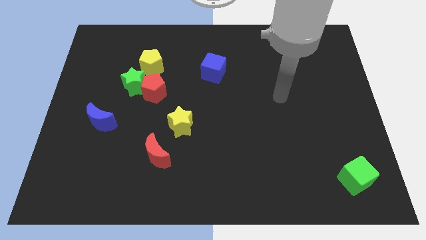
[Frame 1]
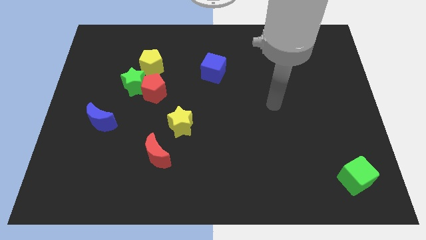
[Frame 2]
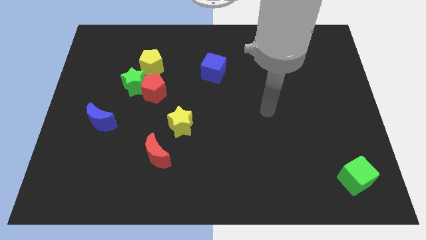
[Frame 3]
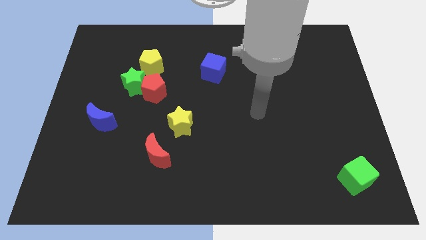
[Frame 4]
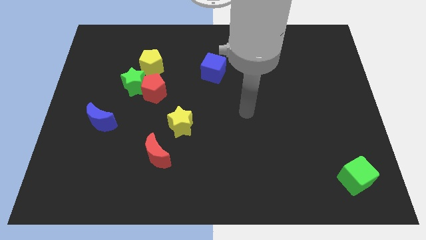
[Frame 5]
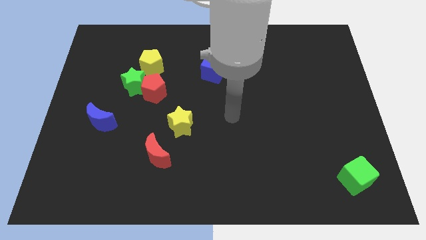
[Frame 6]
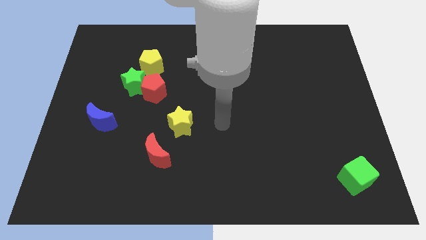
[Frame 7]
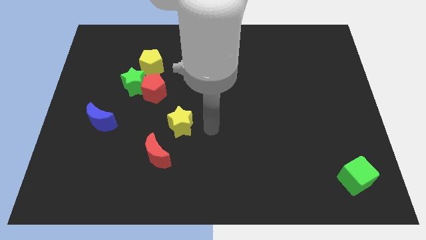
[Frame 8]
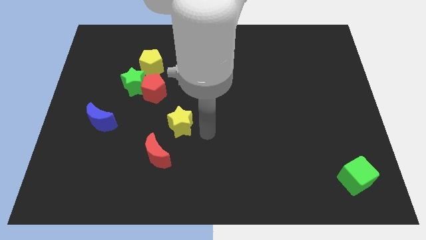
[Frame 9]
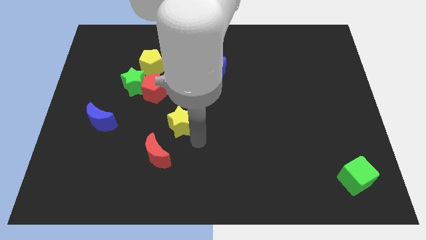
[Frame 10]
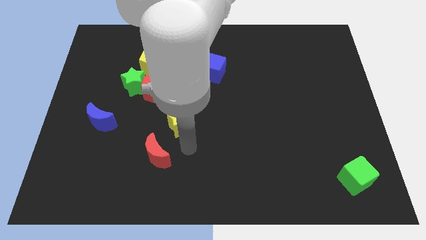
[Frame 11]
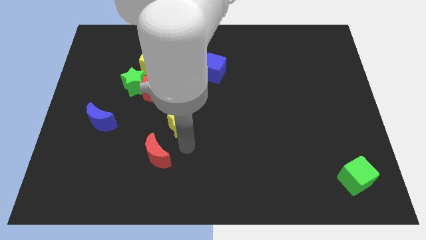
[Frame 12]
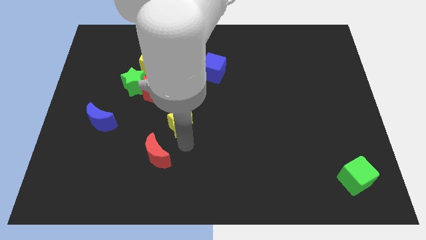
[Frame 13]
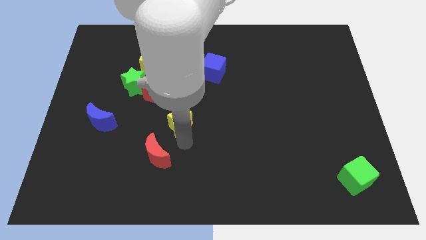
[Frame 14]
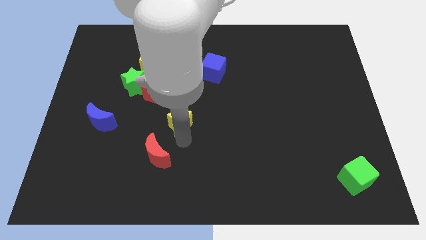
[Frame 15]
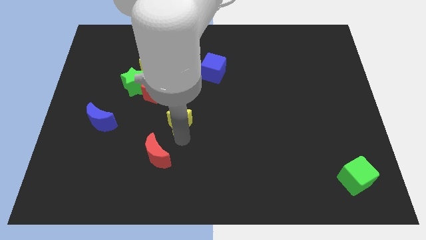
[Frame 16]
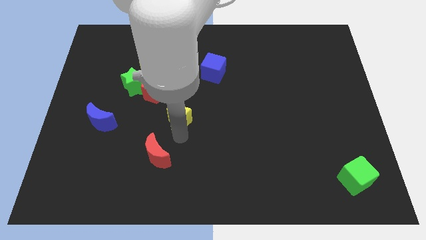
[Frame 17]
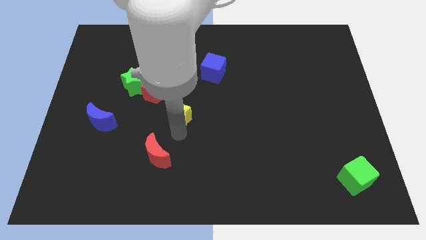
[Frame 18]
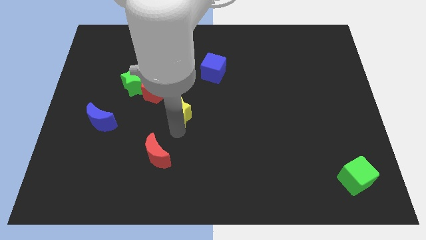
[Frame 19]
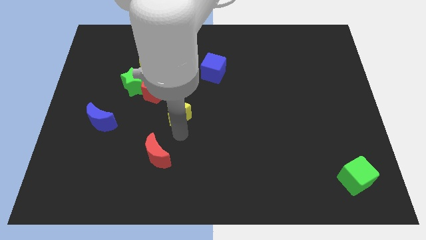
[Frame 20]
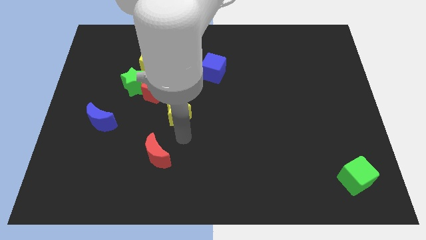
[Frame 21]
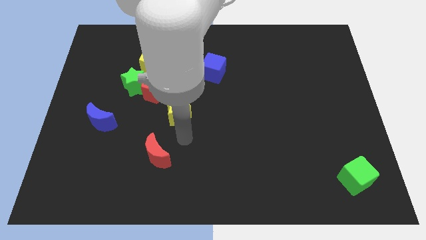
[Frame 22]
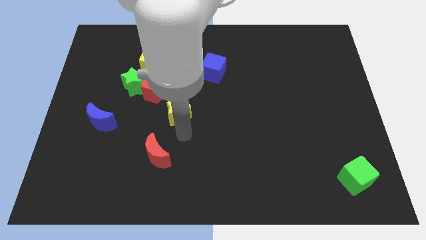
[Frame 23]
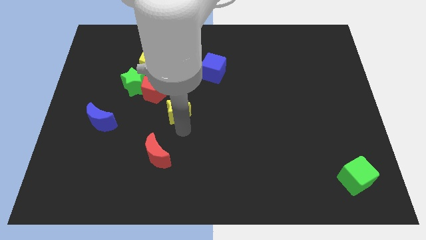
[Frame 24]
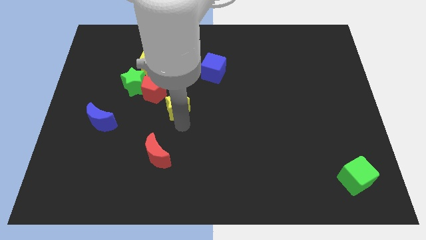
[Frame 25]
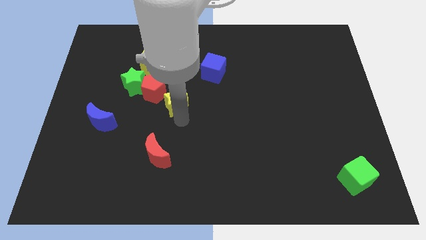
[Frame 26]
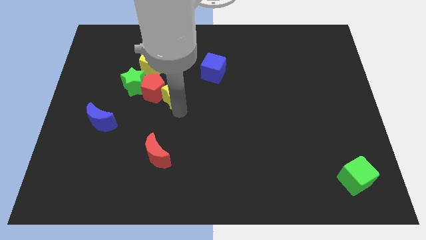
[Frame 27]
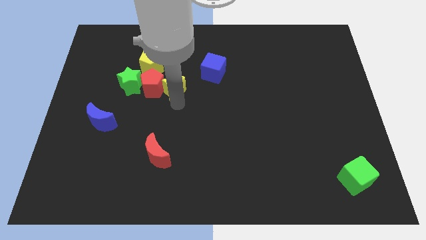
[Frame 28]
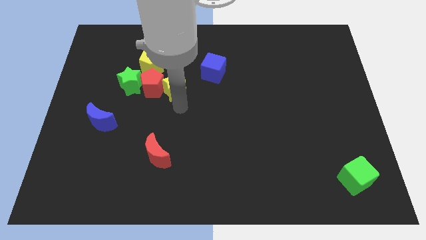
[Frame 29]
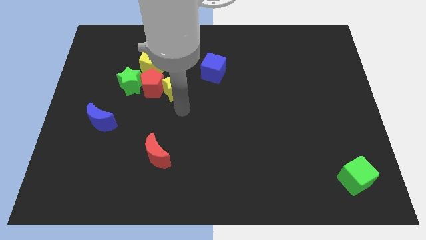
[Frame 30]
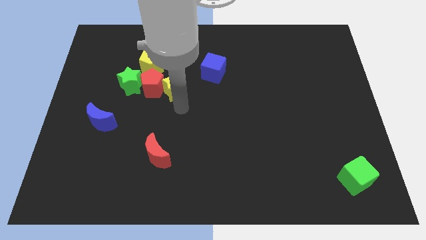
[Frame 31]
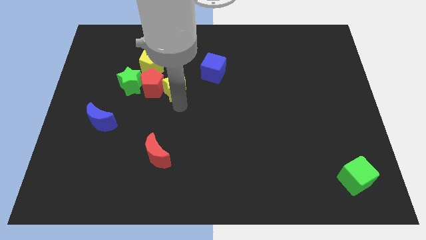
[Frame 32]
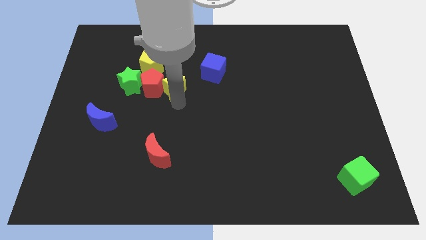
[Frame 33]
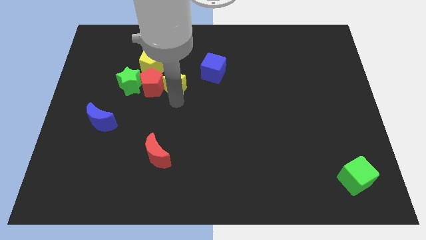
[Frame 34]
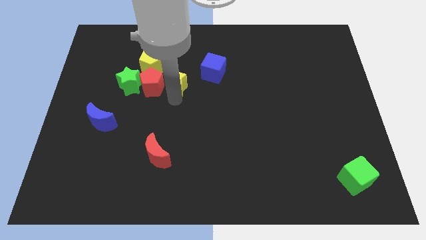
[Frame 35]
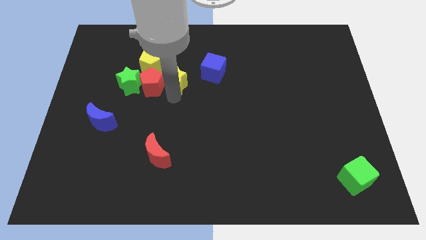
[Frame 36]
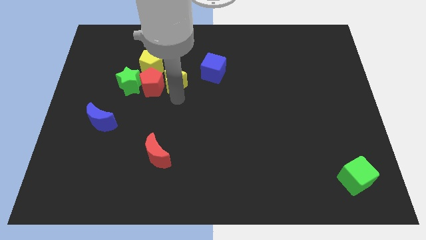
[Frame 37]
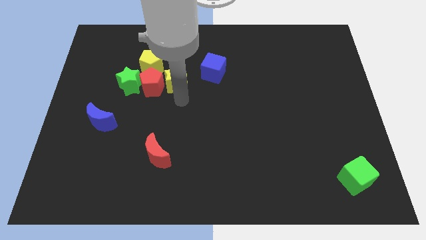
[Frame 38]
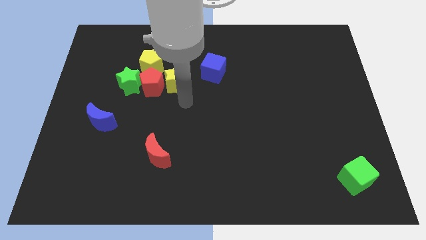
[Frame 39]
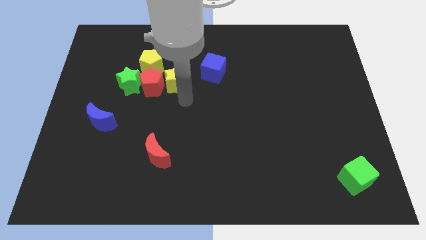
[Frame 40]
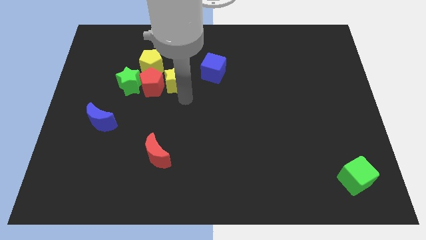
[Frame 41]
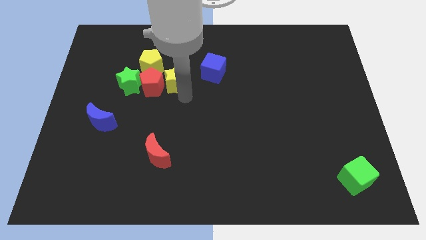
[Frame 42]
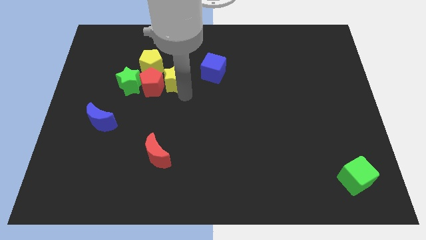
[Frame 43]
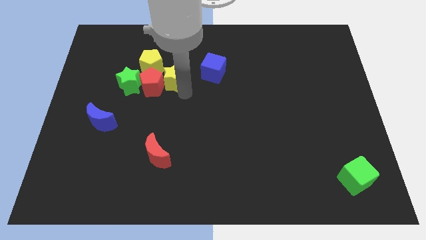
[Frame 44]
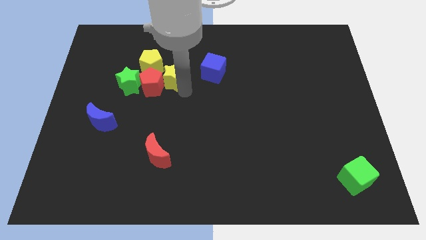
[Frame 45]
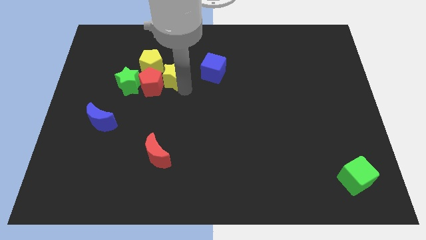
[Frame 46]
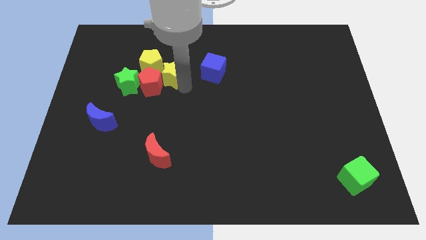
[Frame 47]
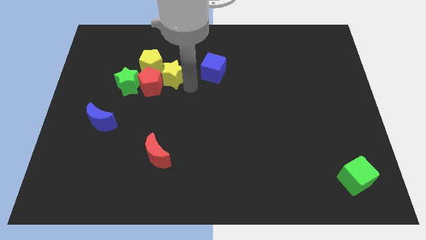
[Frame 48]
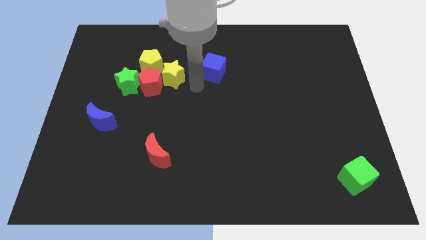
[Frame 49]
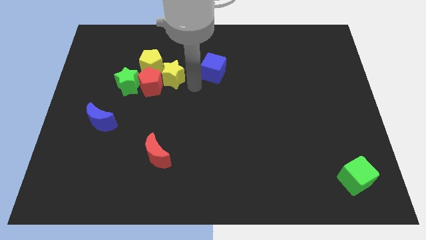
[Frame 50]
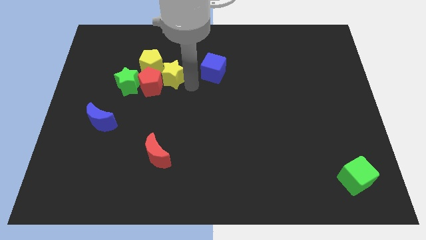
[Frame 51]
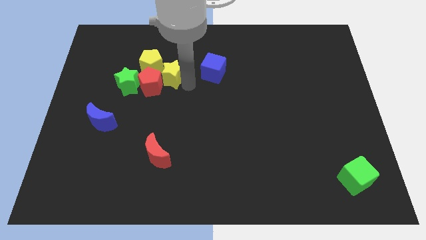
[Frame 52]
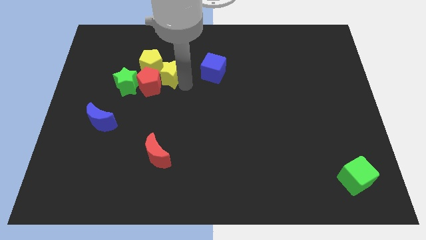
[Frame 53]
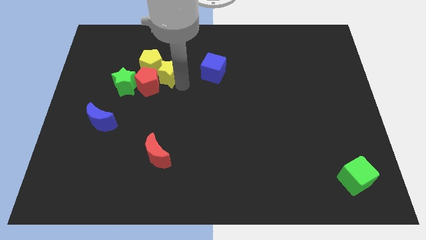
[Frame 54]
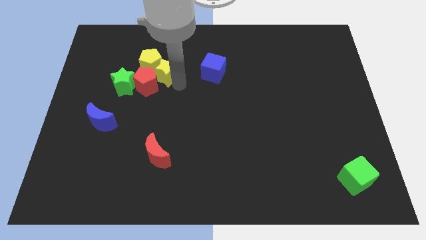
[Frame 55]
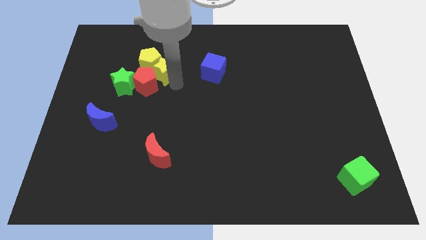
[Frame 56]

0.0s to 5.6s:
slide the yellow star to the top right side of the green star

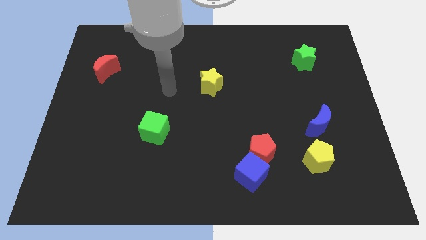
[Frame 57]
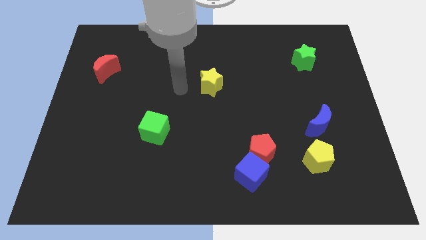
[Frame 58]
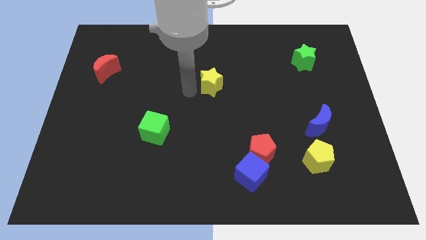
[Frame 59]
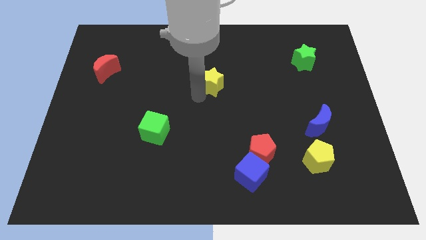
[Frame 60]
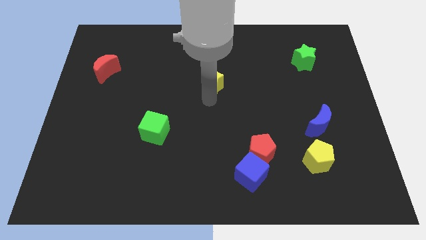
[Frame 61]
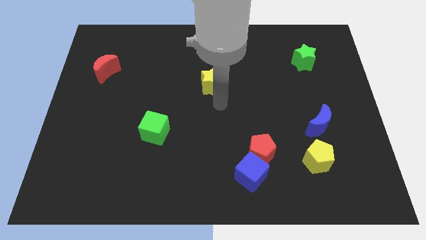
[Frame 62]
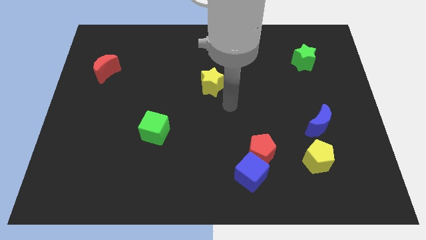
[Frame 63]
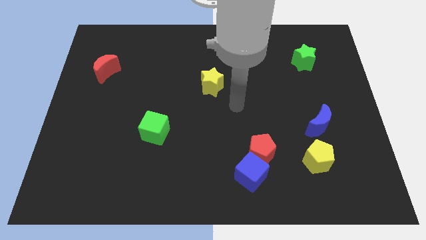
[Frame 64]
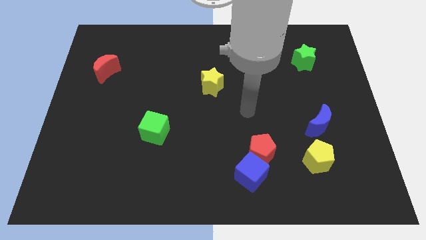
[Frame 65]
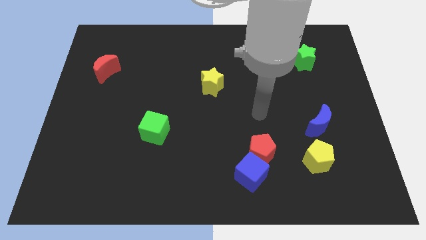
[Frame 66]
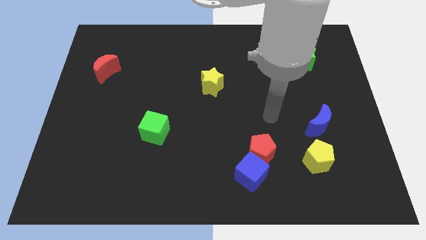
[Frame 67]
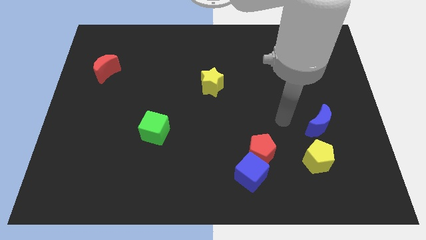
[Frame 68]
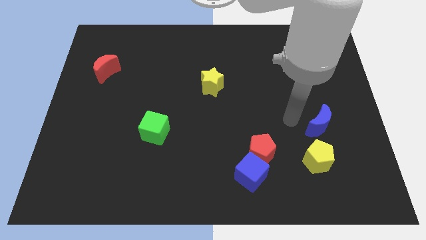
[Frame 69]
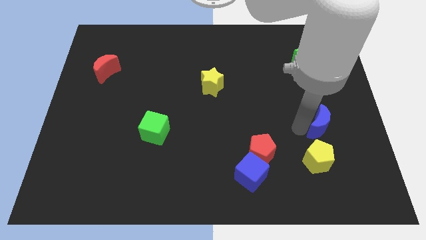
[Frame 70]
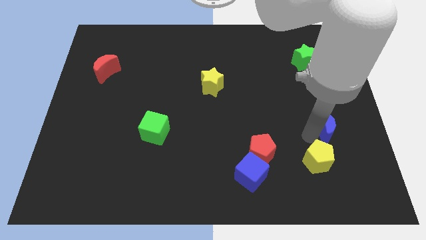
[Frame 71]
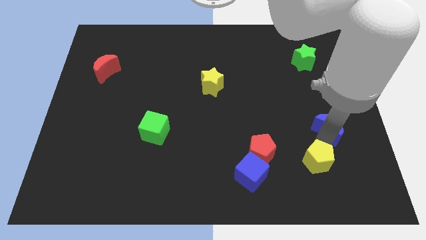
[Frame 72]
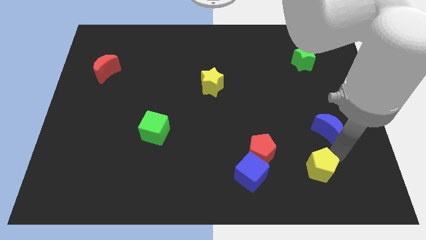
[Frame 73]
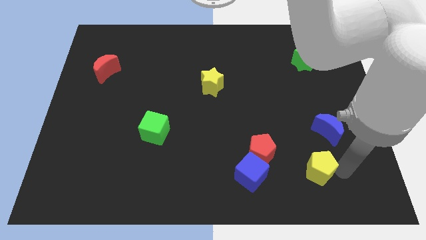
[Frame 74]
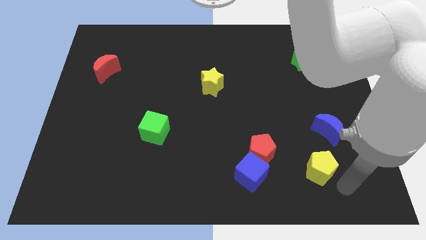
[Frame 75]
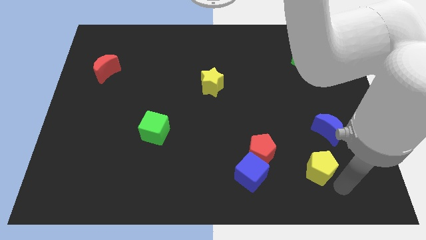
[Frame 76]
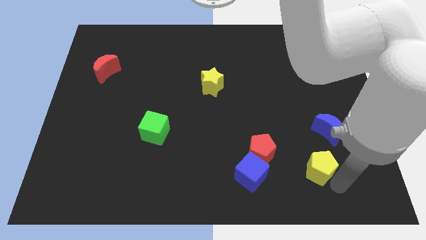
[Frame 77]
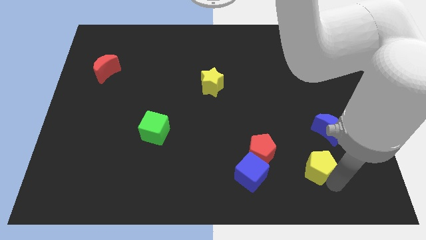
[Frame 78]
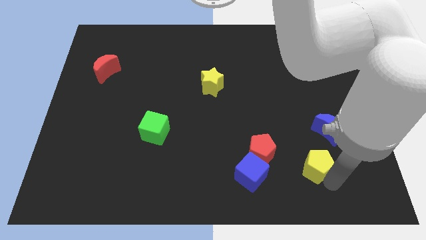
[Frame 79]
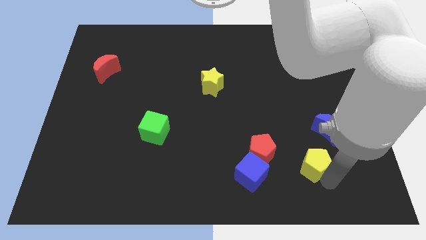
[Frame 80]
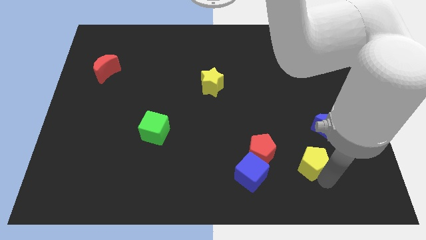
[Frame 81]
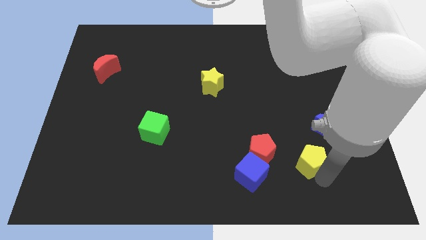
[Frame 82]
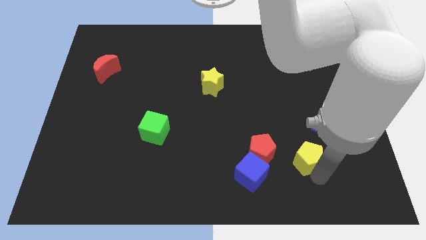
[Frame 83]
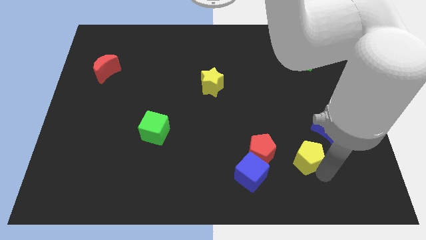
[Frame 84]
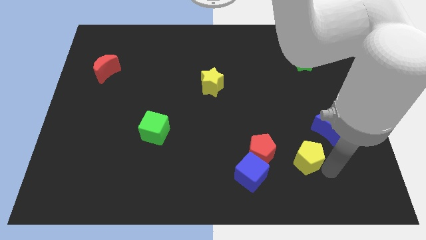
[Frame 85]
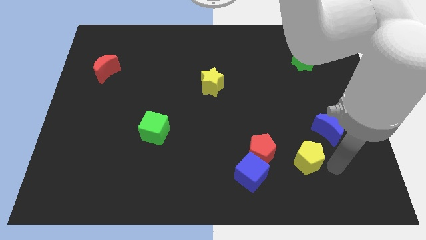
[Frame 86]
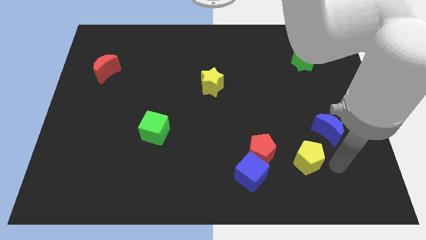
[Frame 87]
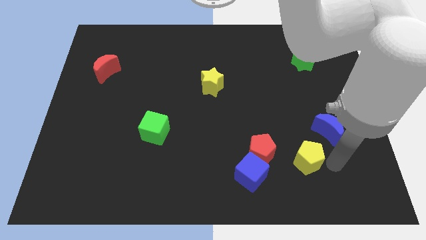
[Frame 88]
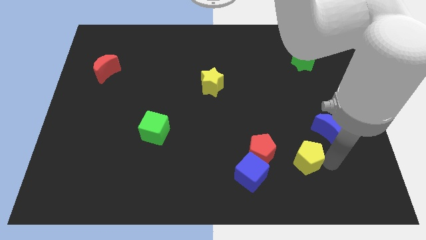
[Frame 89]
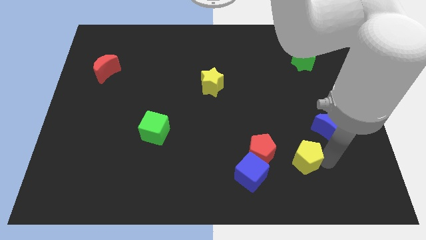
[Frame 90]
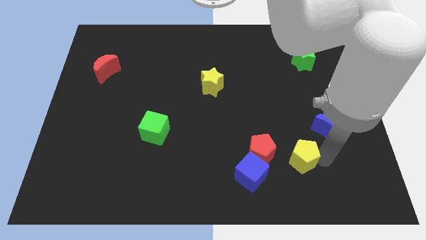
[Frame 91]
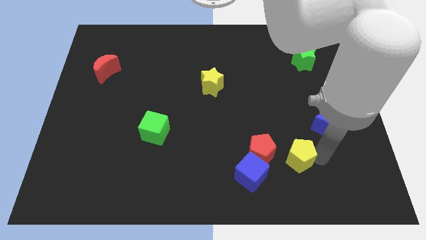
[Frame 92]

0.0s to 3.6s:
move the yellow pentagon diagonally up and to the right of the blue cube
